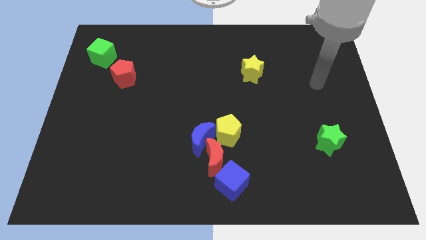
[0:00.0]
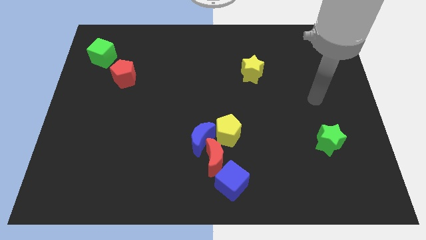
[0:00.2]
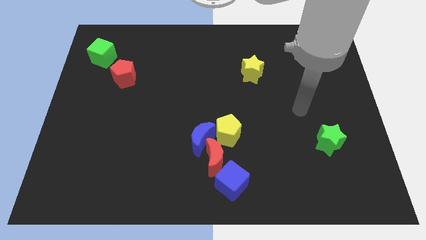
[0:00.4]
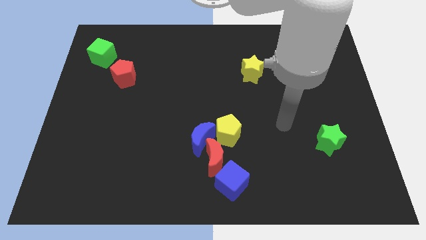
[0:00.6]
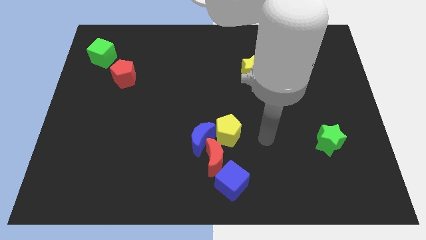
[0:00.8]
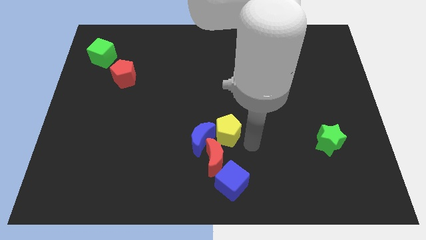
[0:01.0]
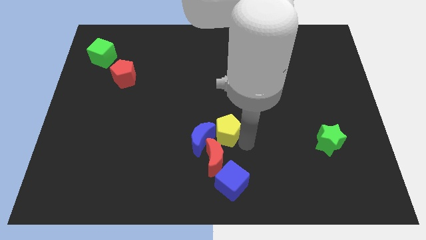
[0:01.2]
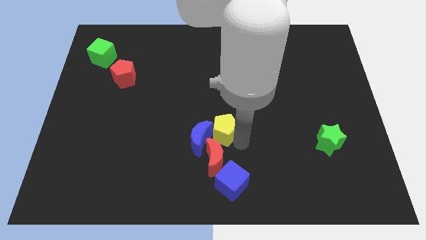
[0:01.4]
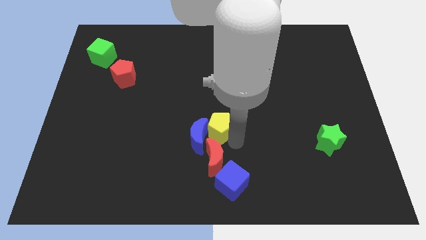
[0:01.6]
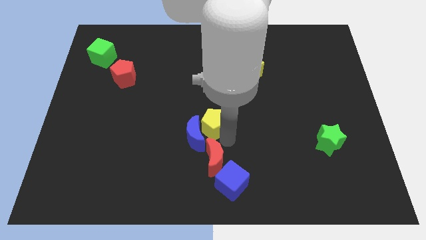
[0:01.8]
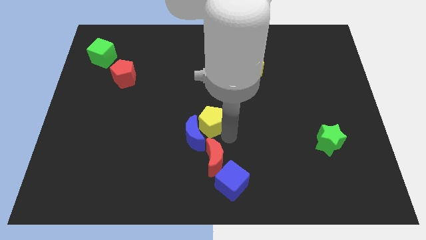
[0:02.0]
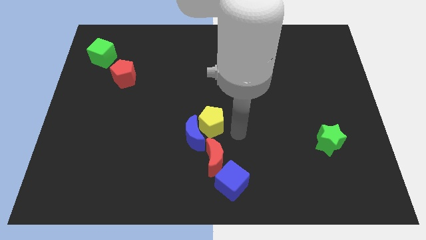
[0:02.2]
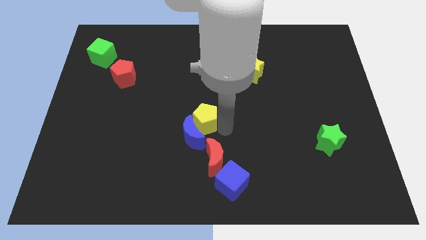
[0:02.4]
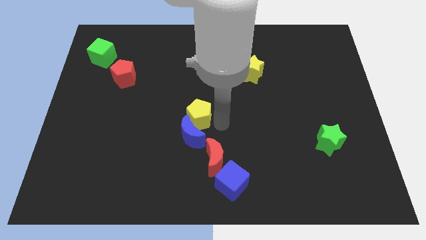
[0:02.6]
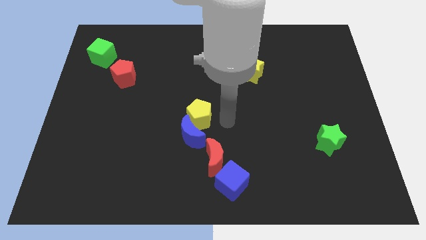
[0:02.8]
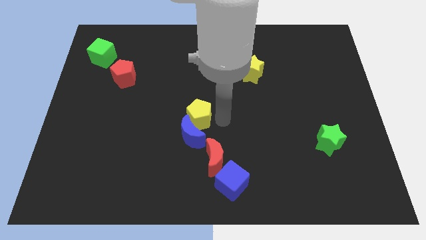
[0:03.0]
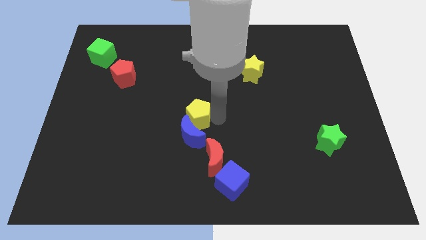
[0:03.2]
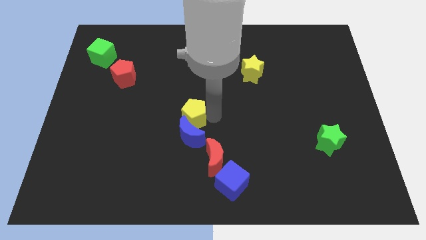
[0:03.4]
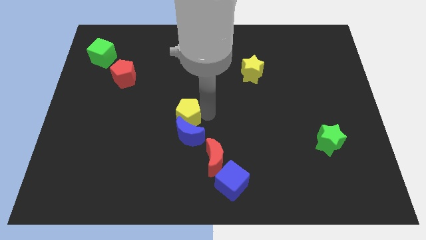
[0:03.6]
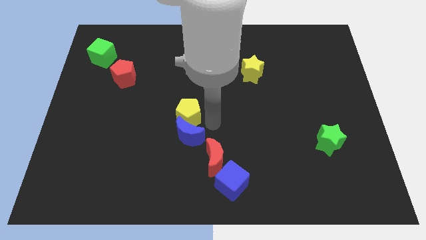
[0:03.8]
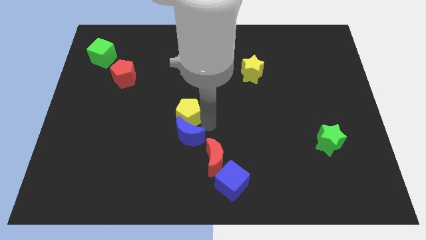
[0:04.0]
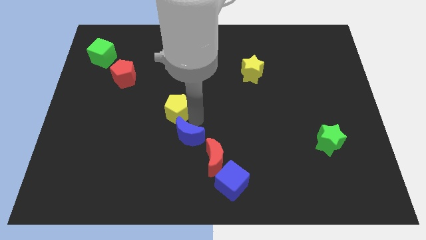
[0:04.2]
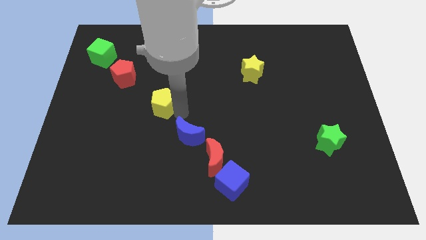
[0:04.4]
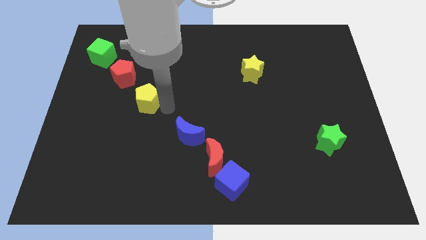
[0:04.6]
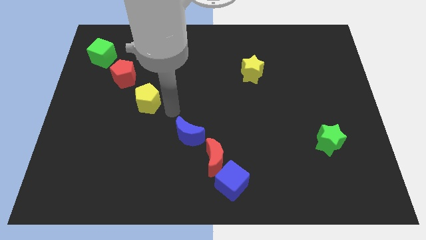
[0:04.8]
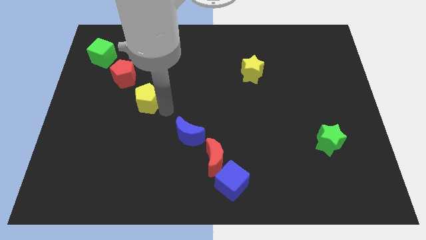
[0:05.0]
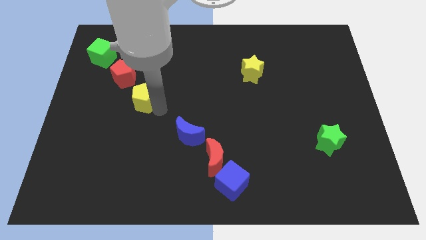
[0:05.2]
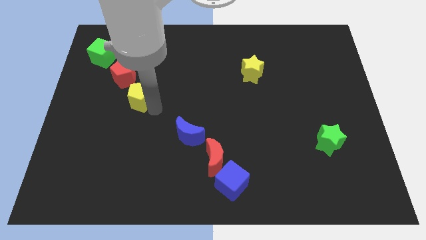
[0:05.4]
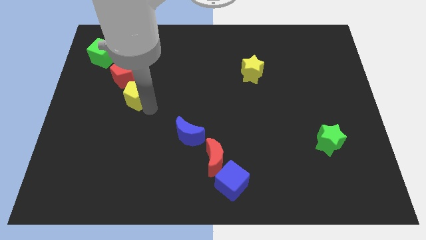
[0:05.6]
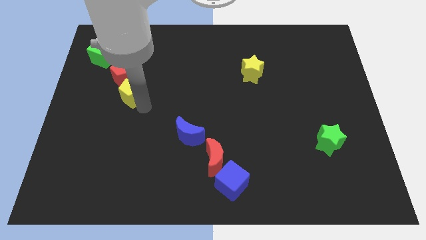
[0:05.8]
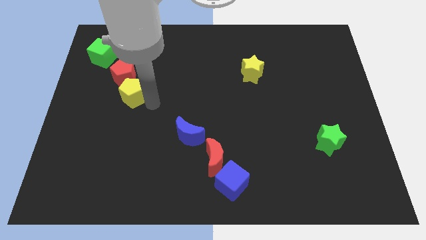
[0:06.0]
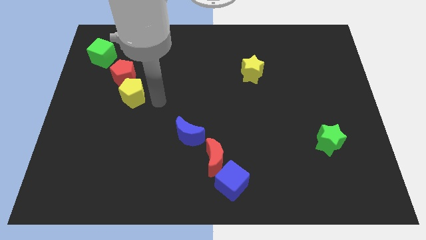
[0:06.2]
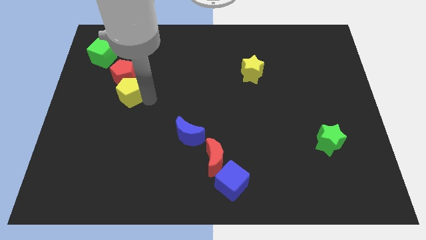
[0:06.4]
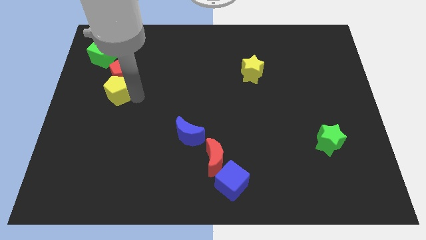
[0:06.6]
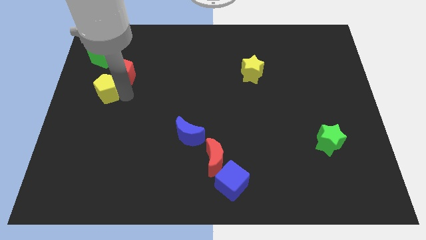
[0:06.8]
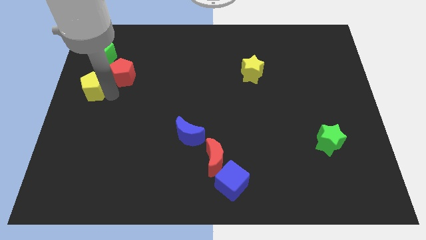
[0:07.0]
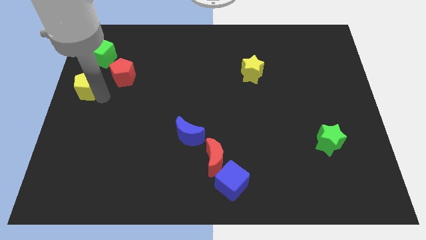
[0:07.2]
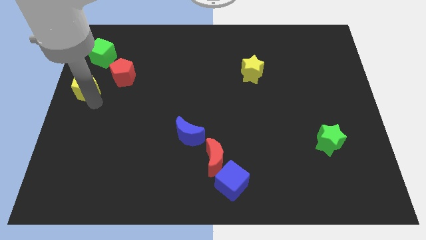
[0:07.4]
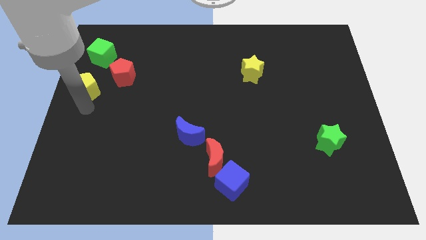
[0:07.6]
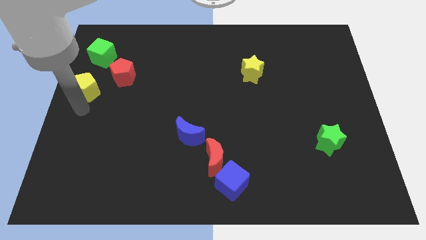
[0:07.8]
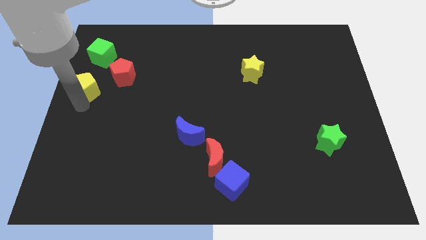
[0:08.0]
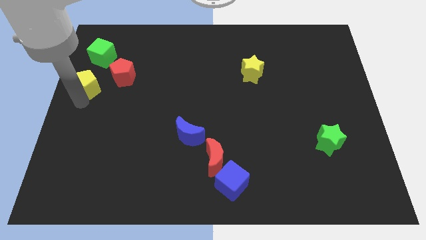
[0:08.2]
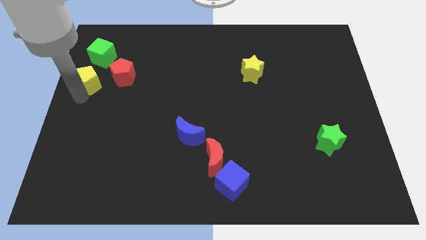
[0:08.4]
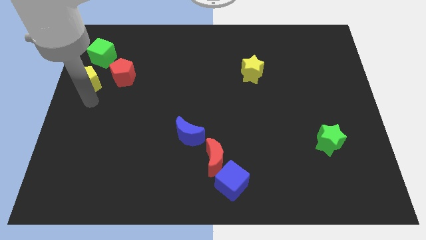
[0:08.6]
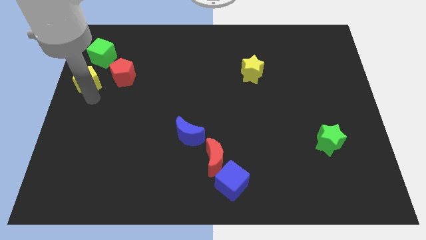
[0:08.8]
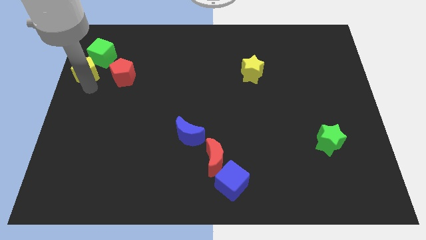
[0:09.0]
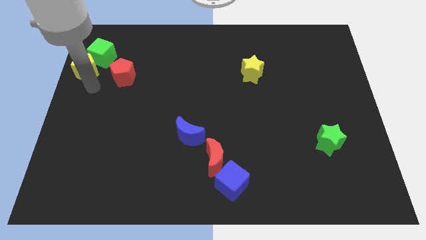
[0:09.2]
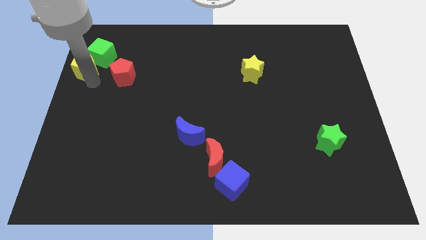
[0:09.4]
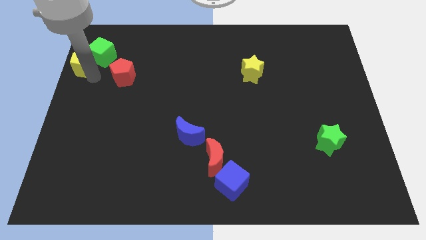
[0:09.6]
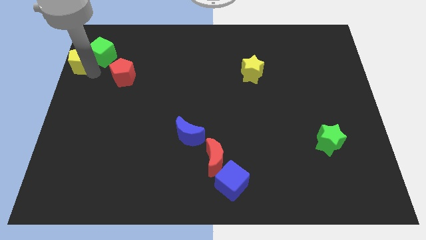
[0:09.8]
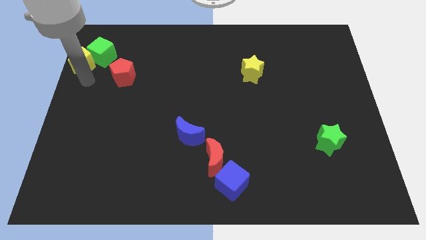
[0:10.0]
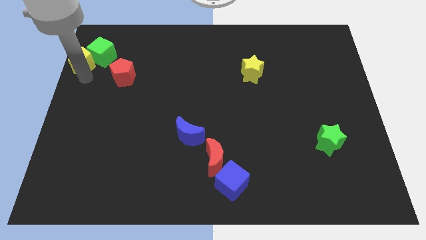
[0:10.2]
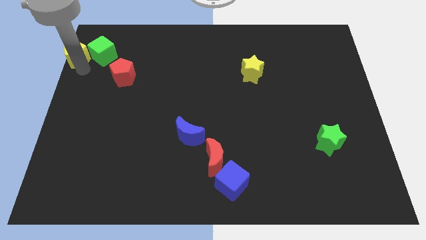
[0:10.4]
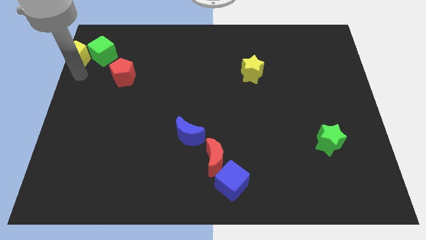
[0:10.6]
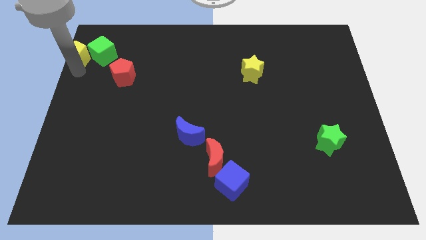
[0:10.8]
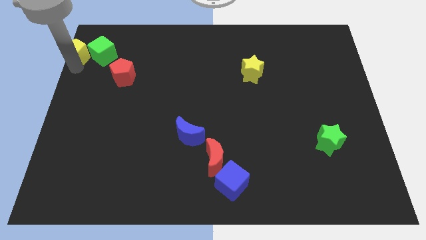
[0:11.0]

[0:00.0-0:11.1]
push the yellow pentagon to the top left corner
